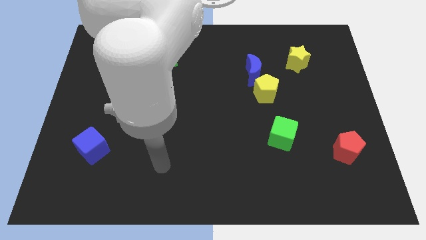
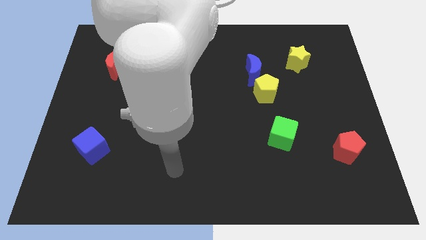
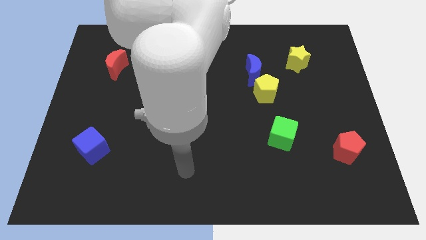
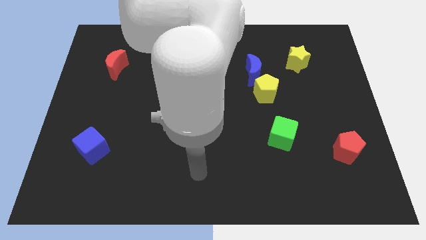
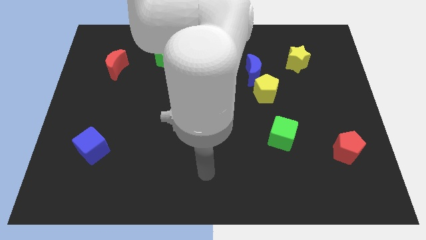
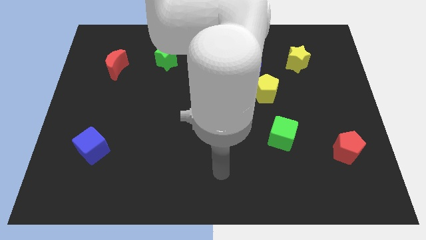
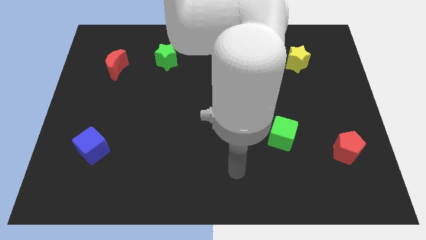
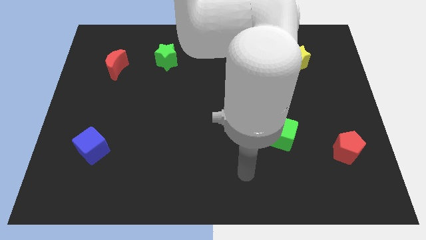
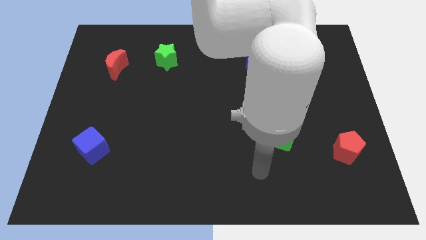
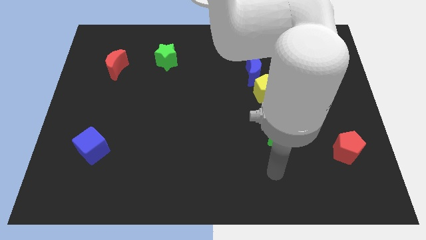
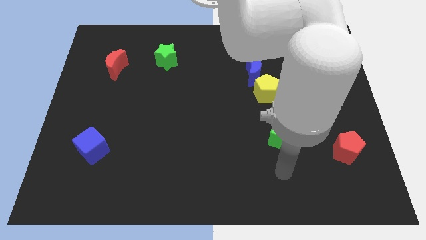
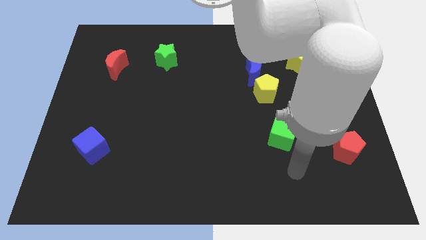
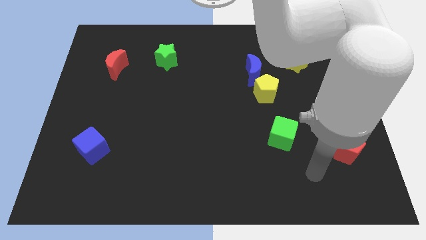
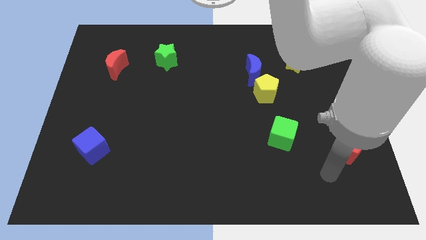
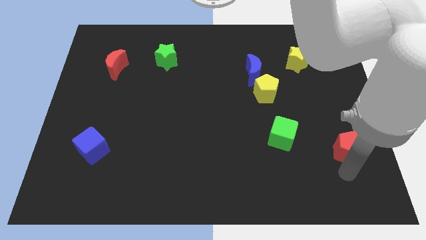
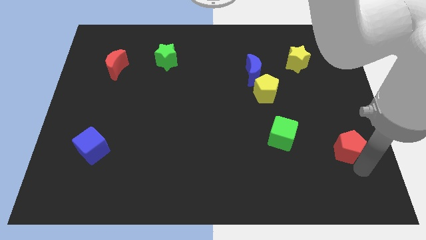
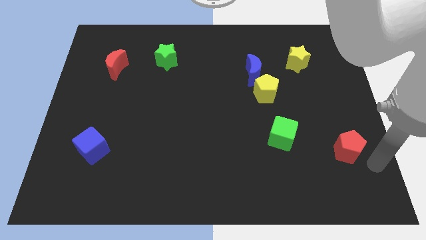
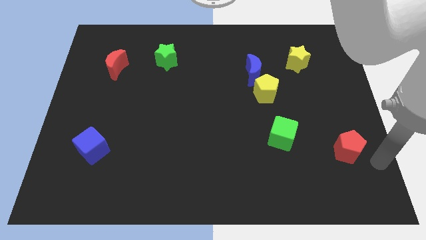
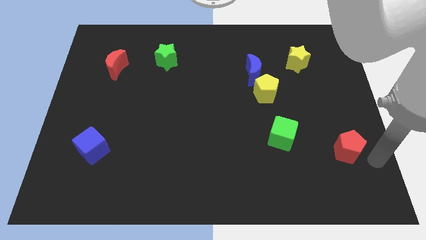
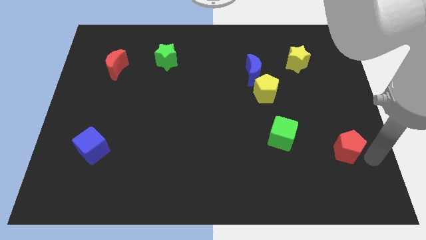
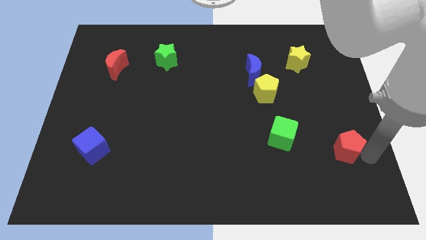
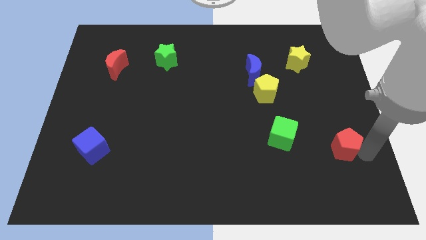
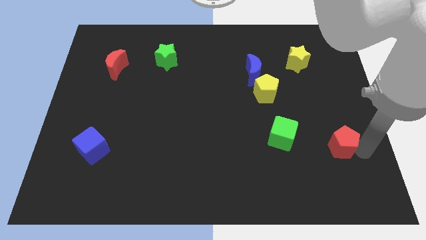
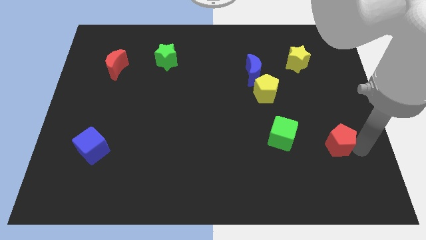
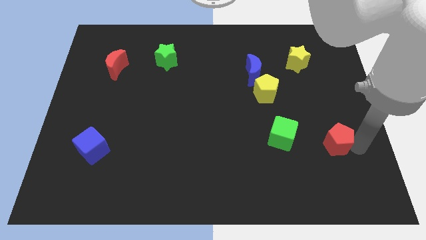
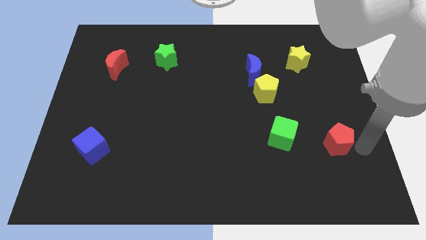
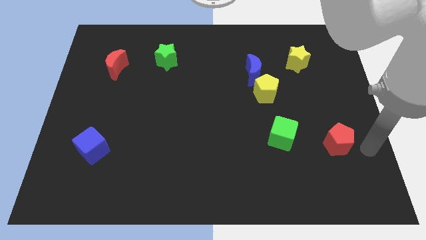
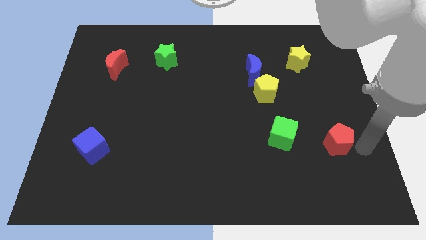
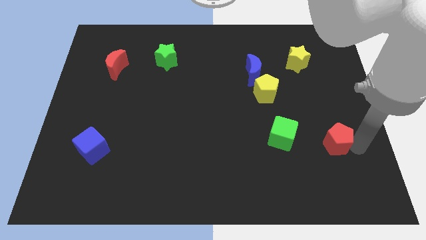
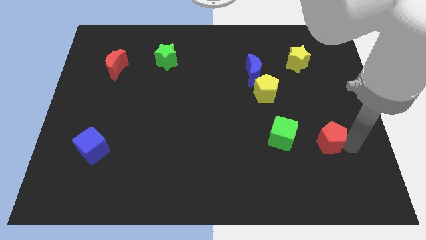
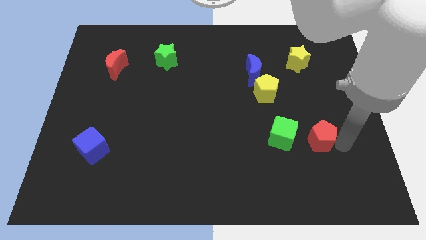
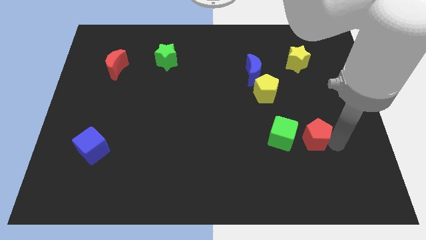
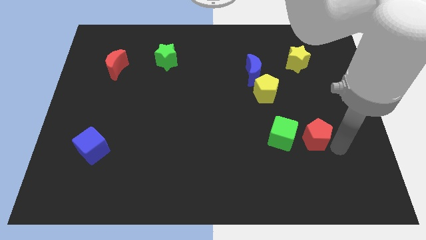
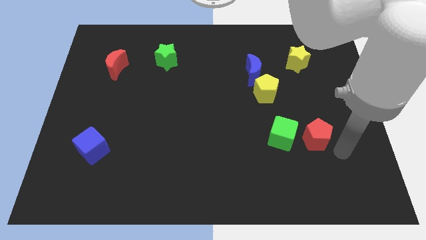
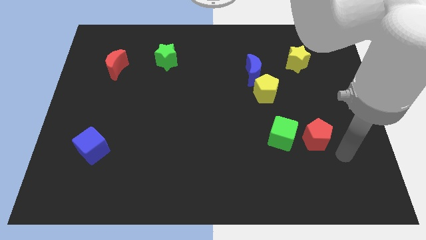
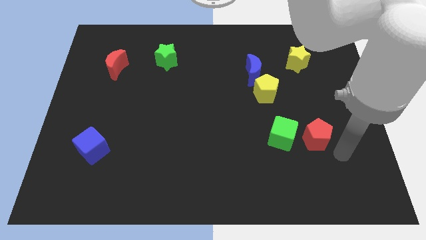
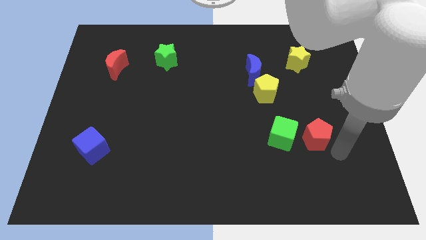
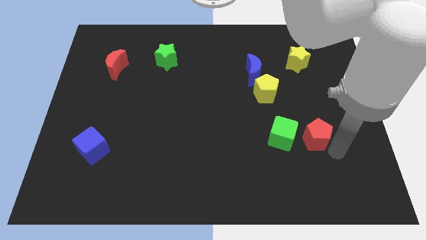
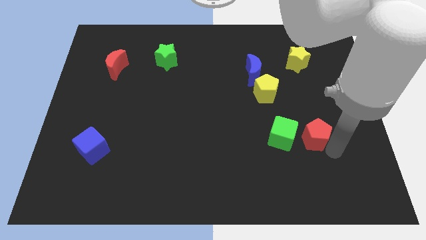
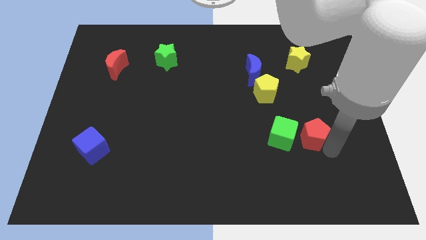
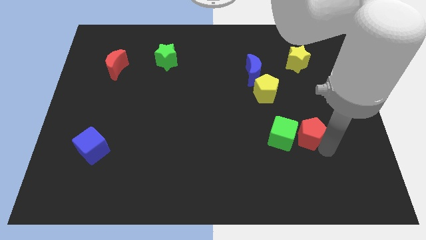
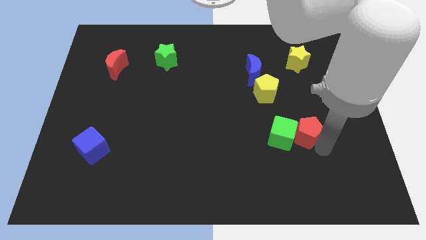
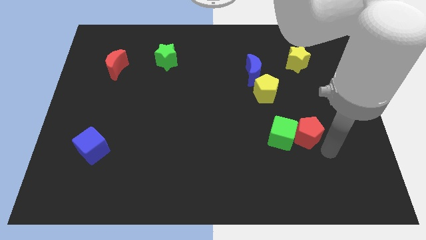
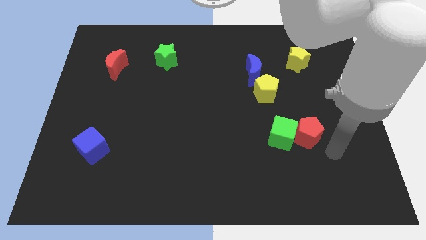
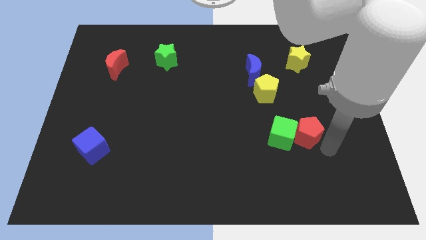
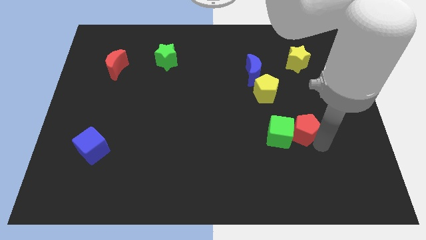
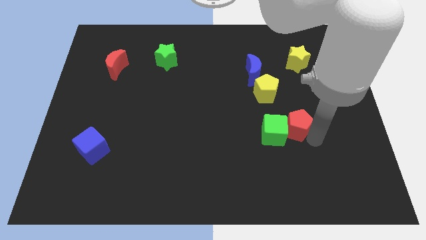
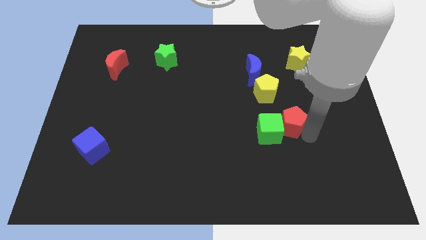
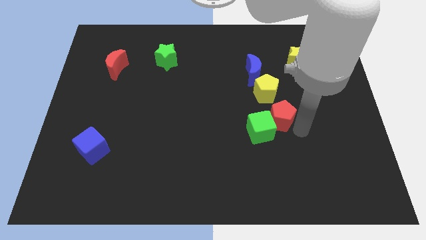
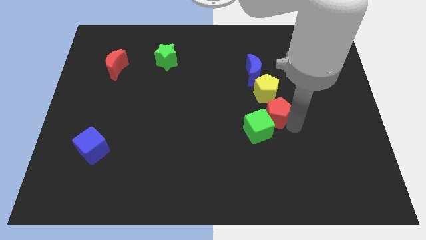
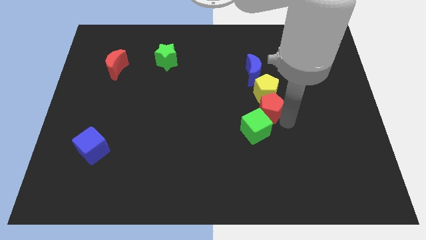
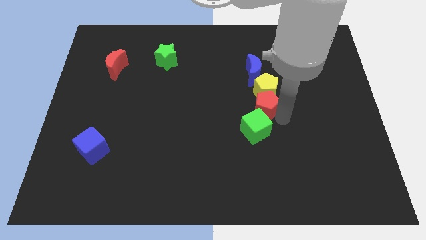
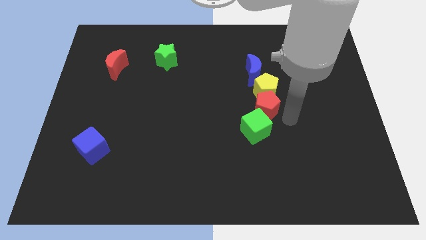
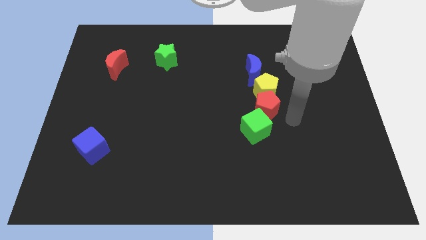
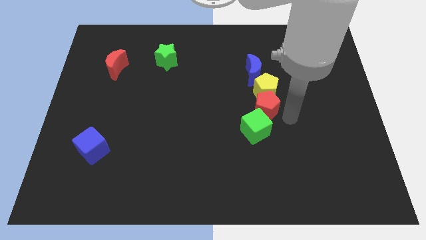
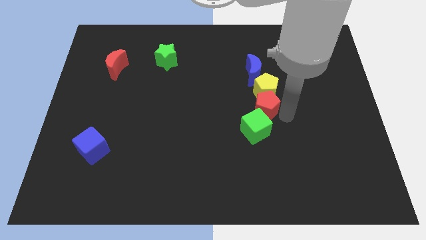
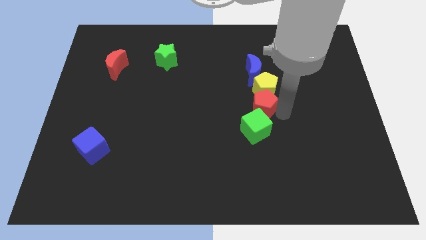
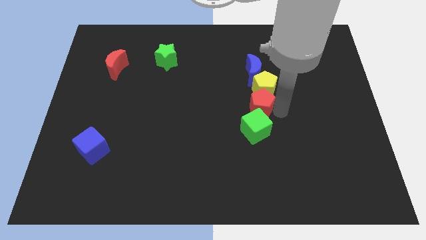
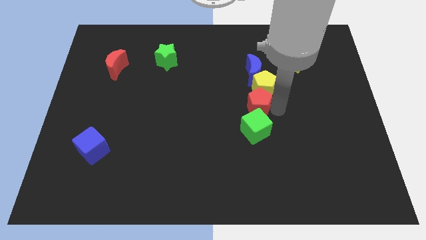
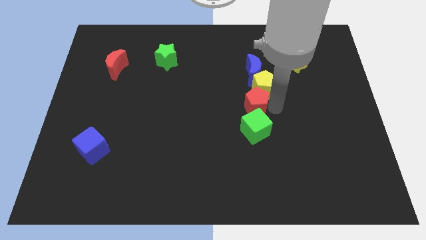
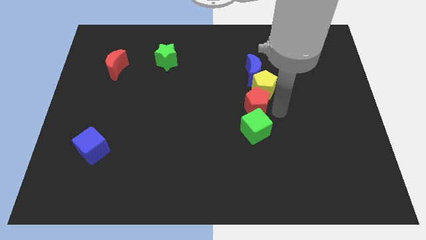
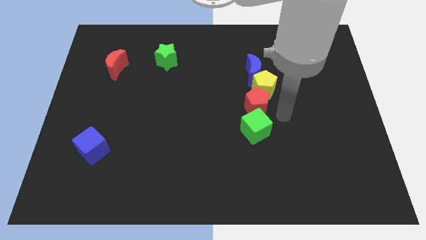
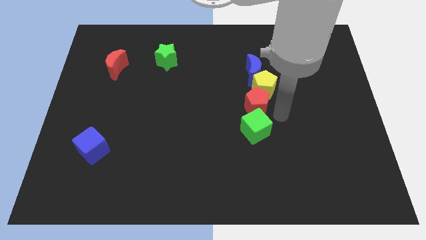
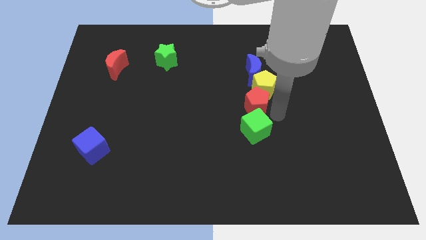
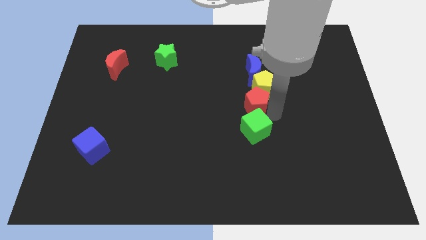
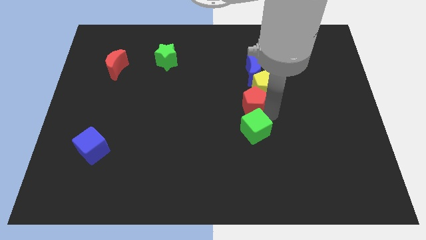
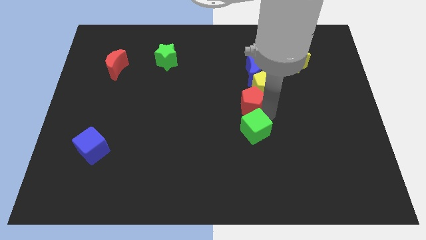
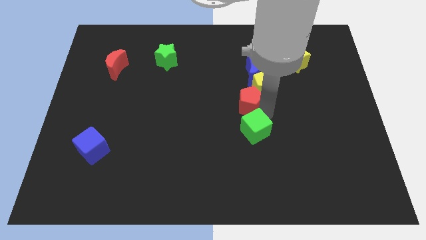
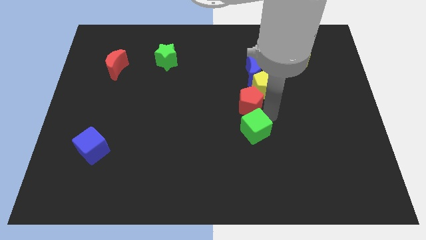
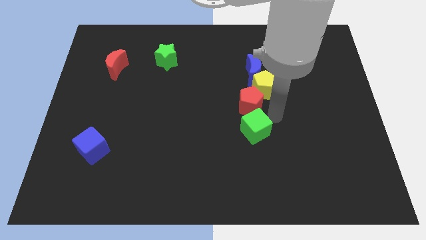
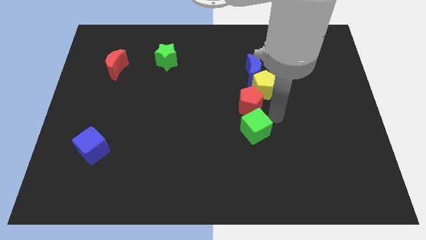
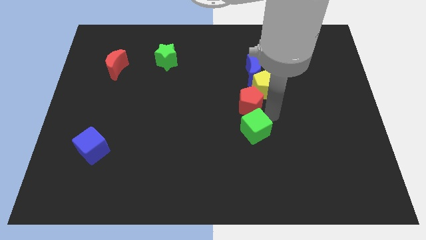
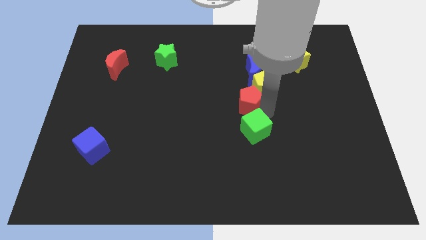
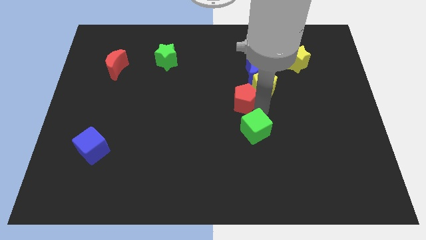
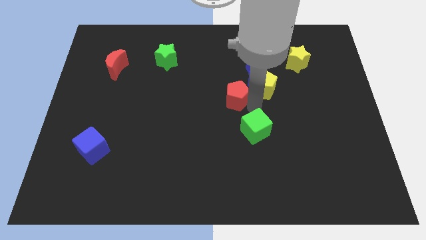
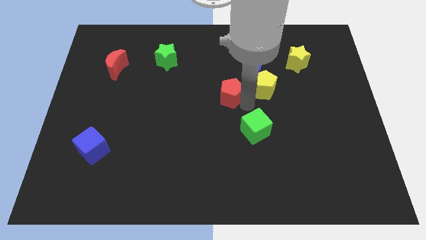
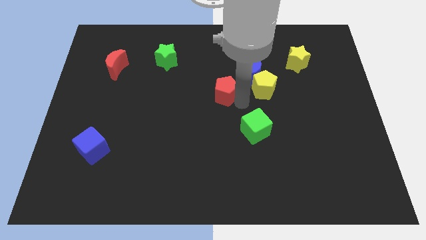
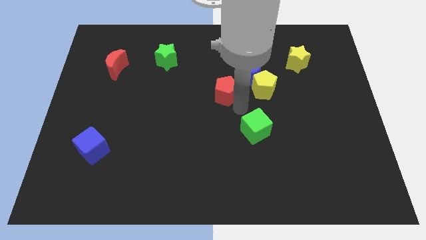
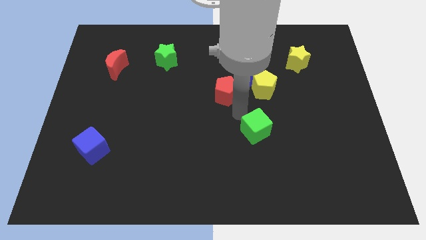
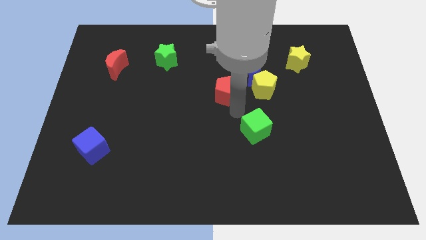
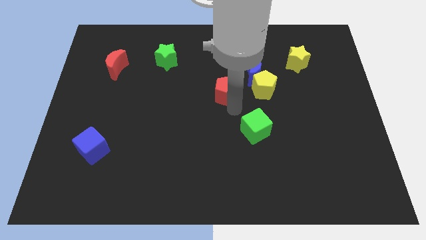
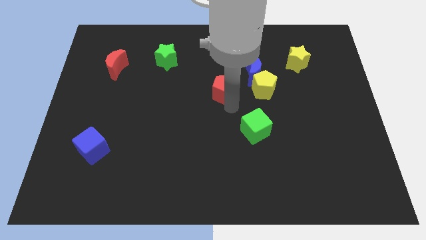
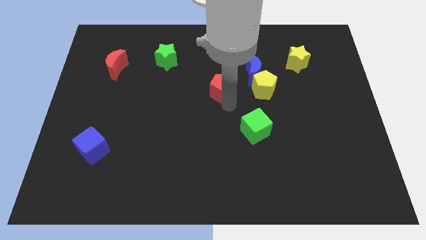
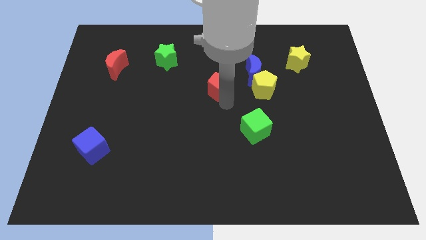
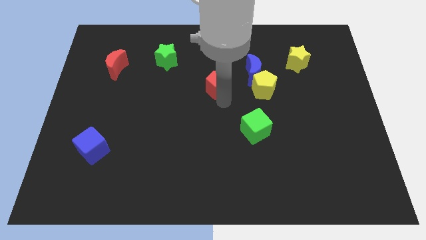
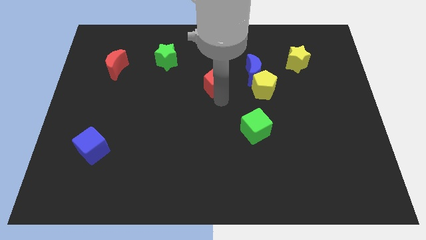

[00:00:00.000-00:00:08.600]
put the red pentagon just left of the blue moon
